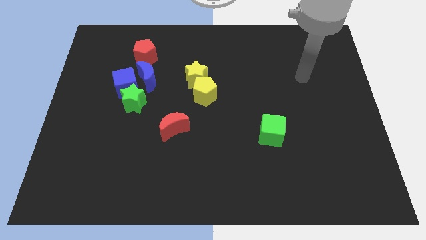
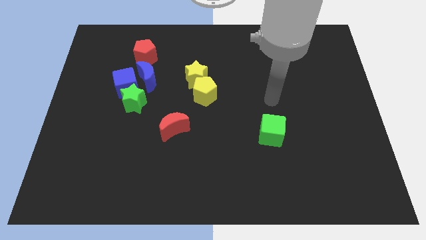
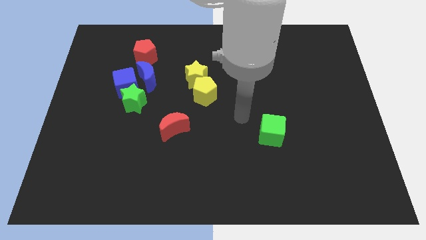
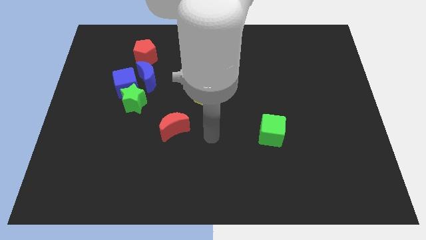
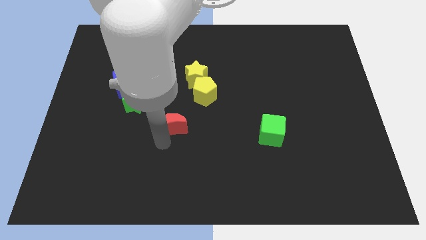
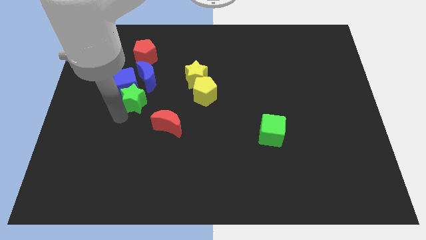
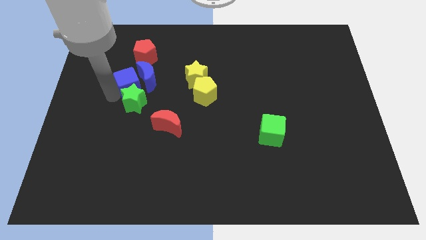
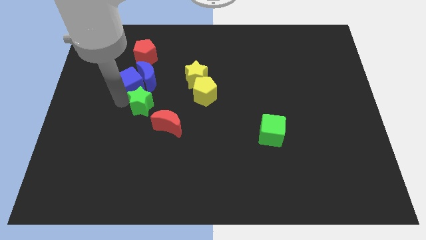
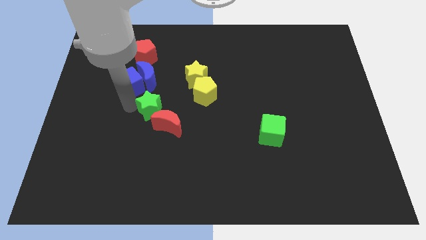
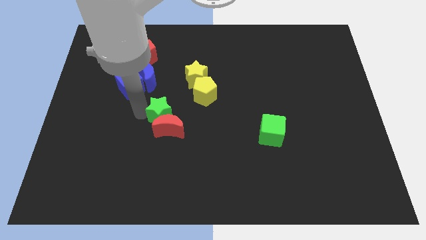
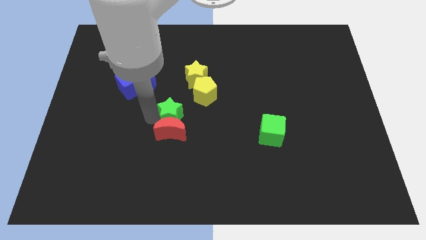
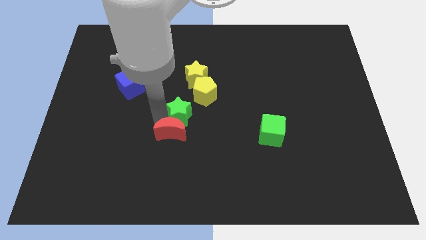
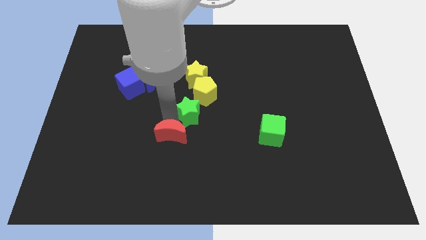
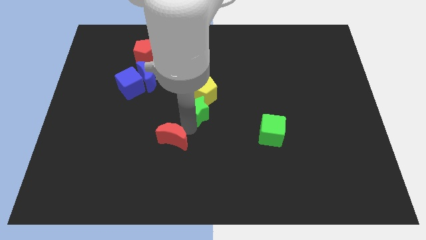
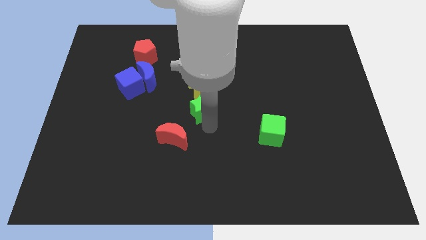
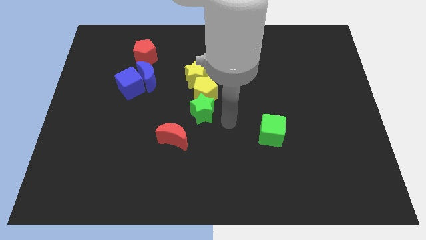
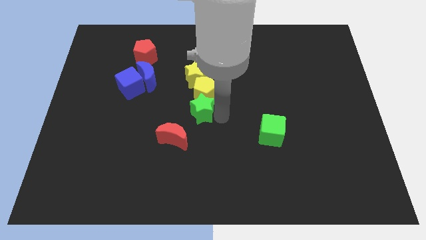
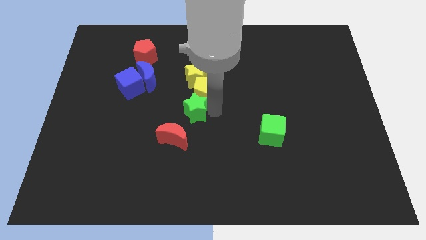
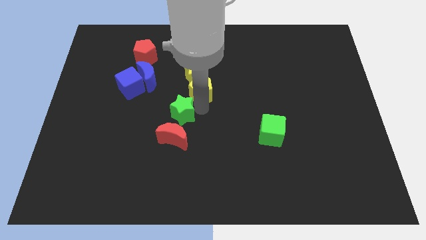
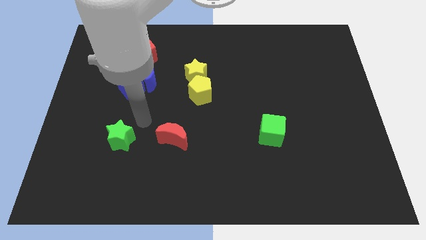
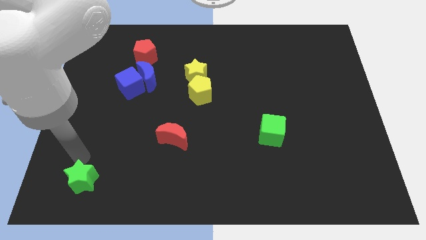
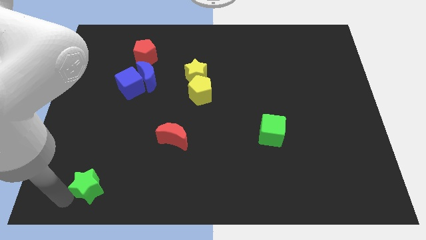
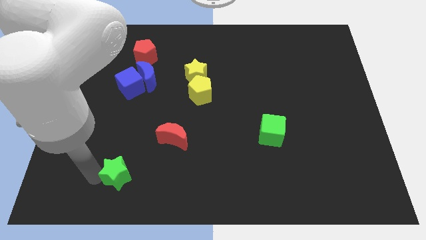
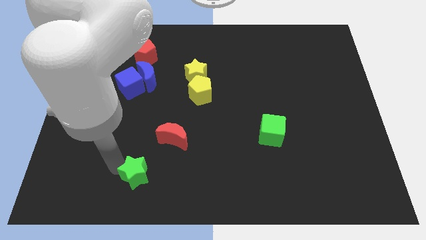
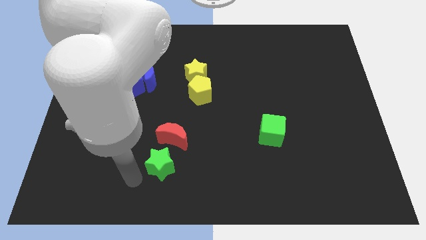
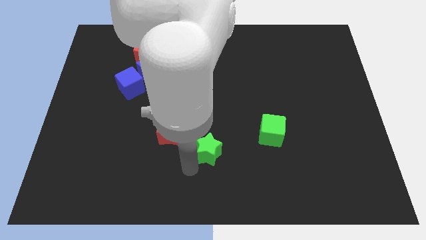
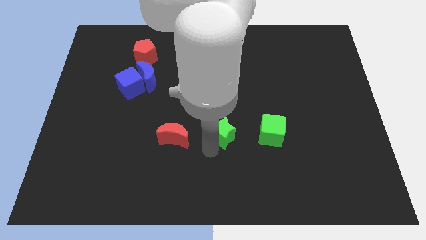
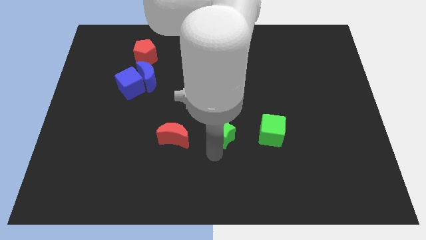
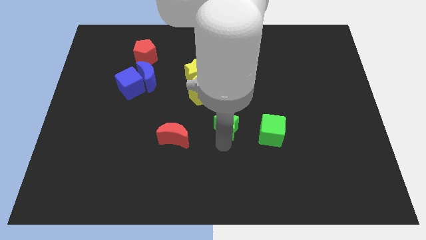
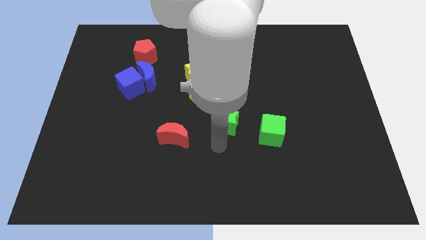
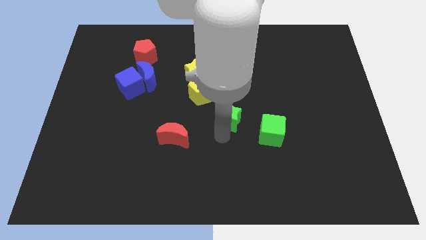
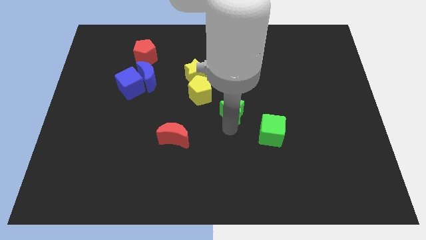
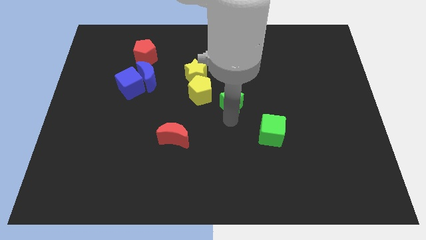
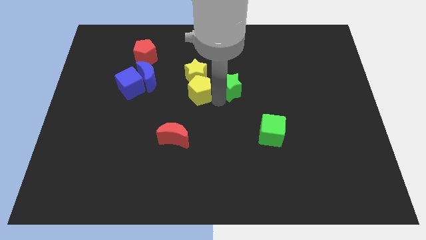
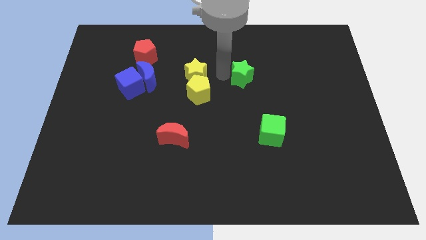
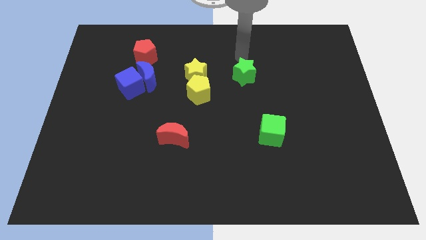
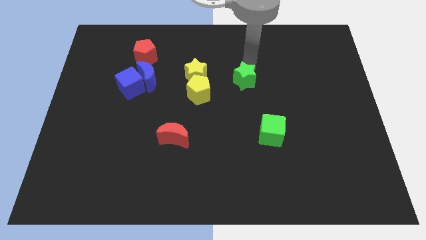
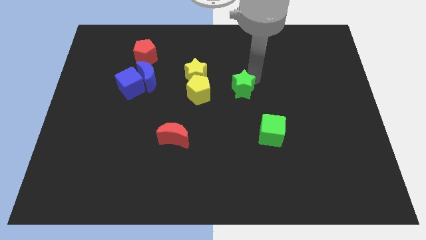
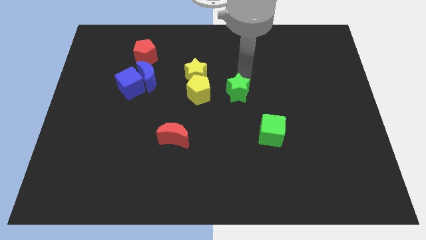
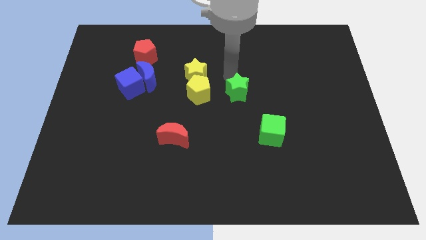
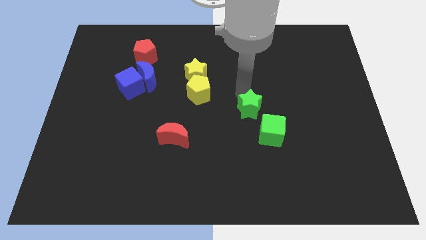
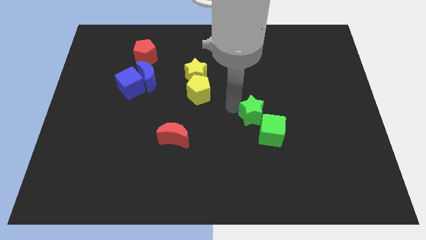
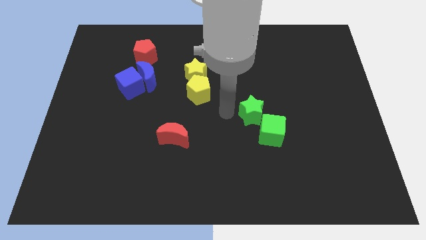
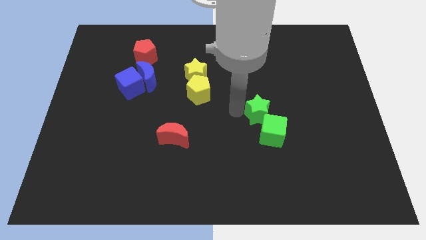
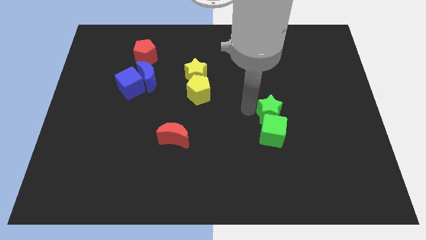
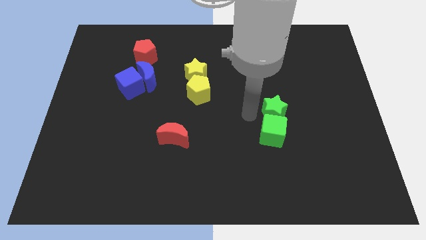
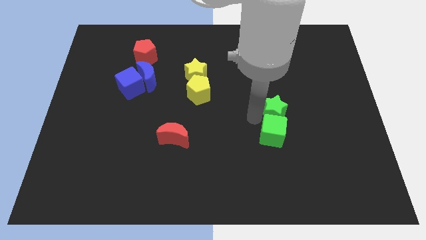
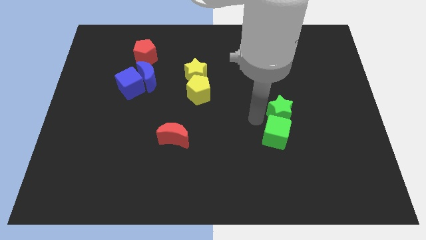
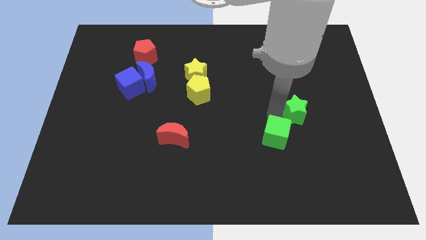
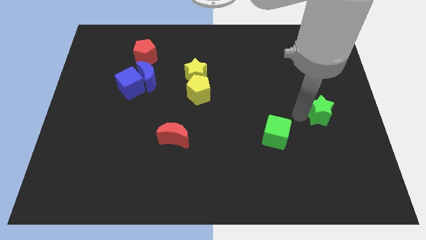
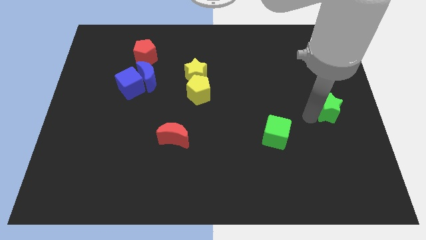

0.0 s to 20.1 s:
put the green star to the right side of the board
